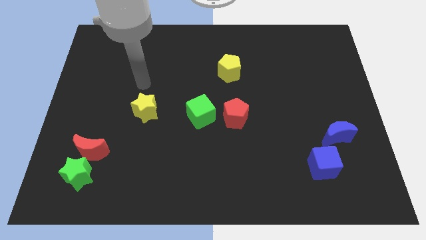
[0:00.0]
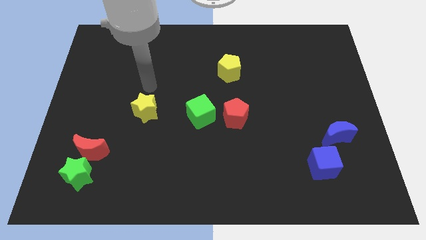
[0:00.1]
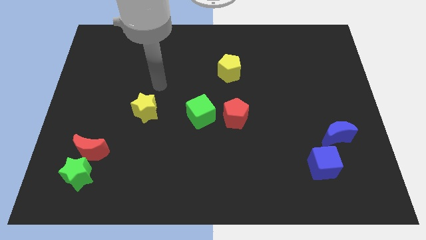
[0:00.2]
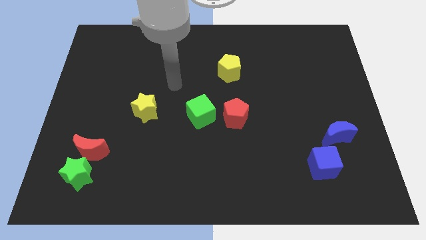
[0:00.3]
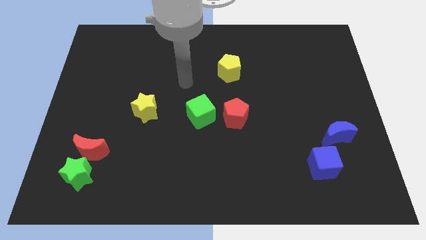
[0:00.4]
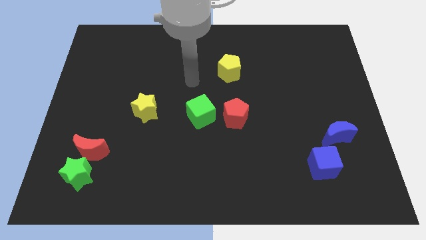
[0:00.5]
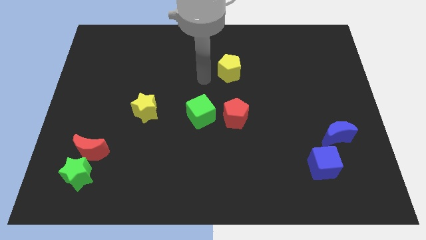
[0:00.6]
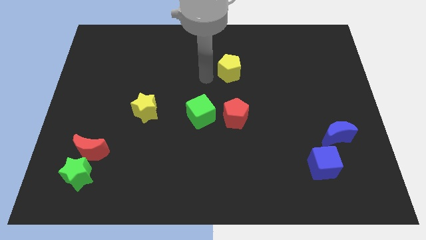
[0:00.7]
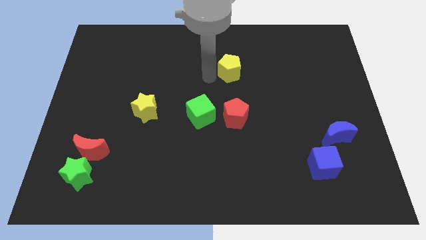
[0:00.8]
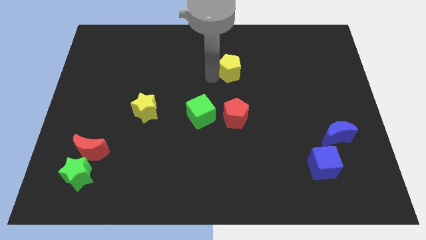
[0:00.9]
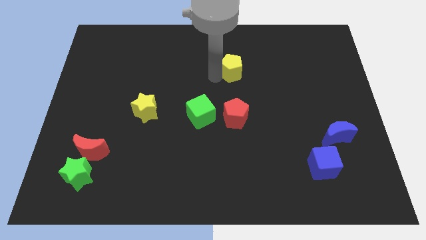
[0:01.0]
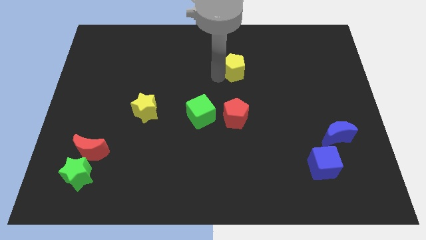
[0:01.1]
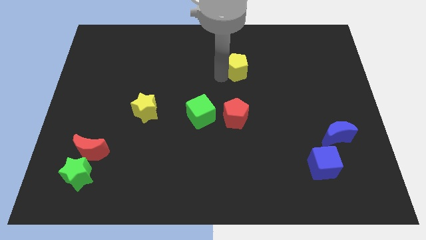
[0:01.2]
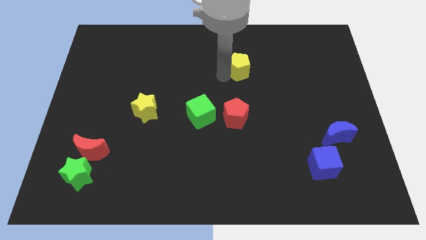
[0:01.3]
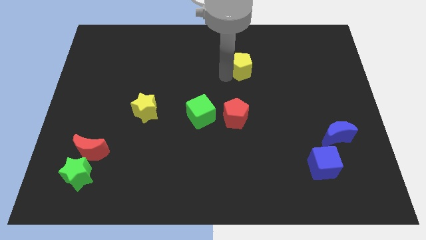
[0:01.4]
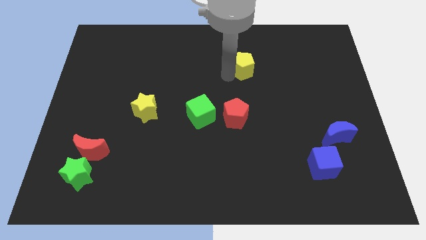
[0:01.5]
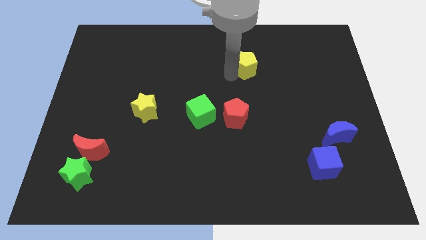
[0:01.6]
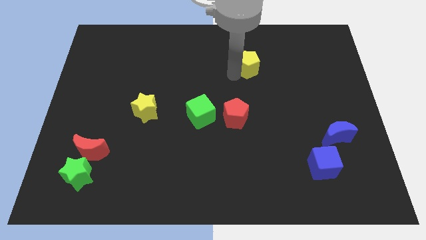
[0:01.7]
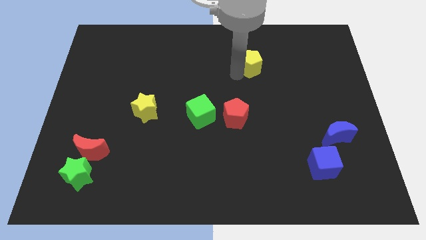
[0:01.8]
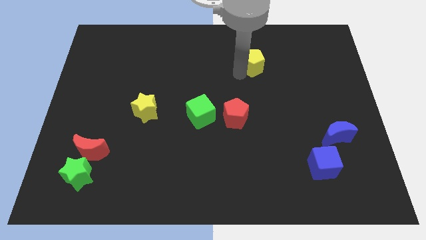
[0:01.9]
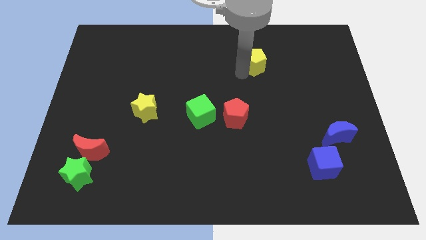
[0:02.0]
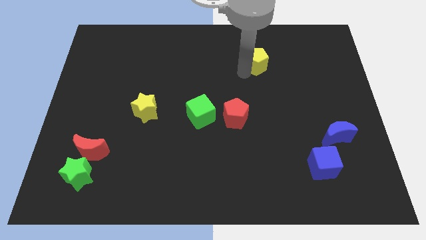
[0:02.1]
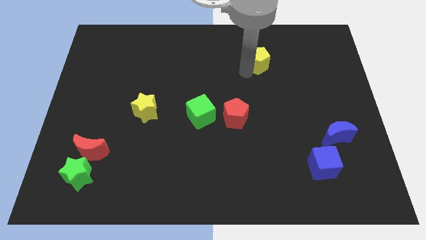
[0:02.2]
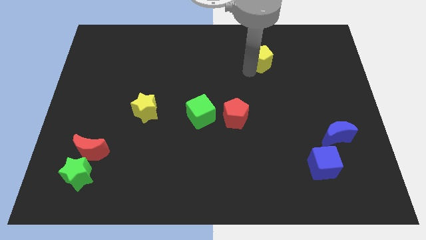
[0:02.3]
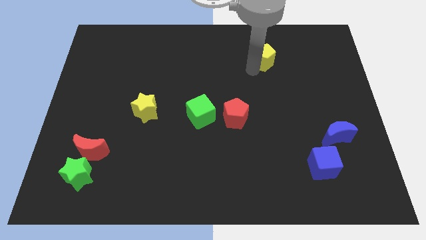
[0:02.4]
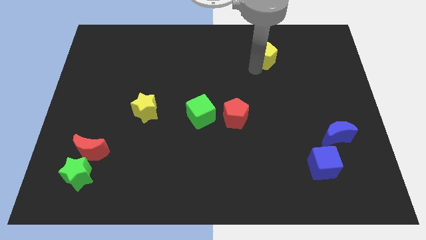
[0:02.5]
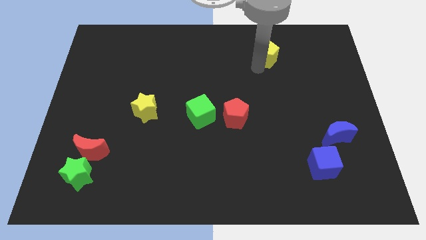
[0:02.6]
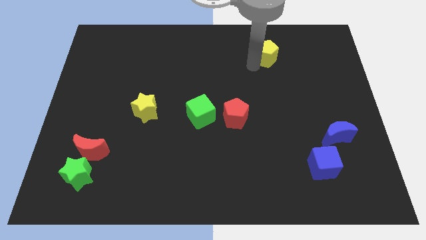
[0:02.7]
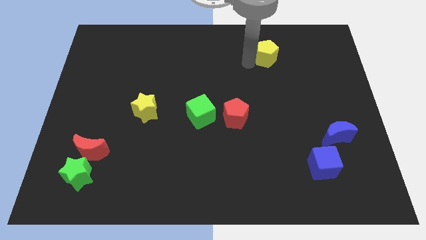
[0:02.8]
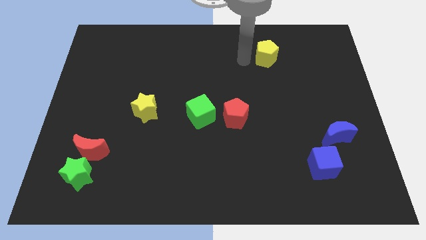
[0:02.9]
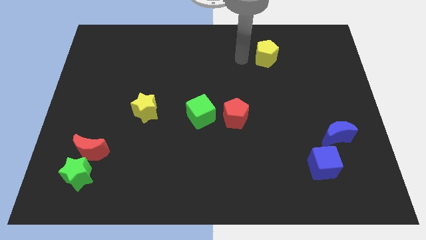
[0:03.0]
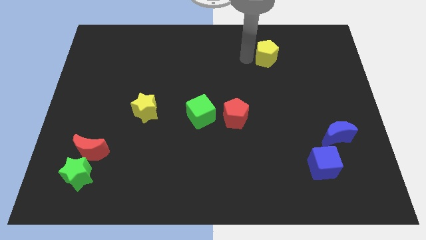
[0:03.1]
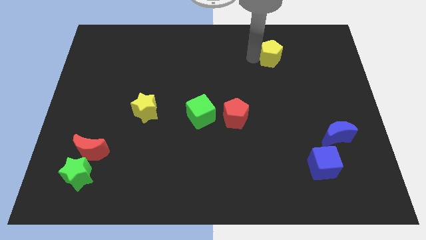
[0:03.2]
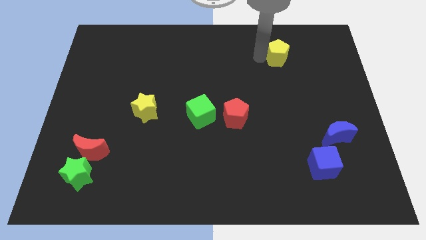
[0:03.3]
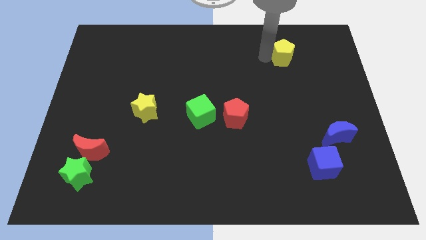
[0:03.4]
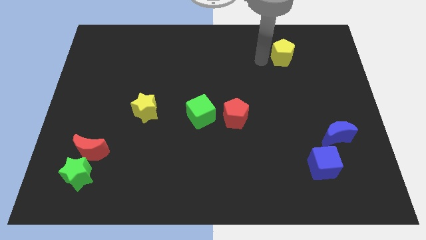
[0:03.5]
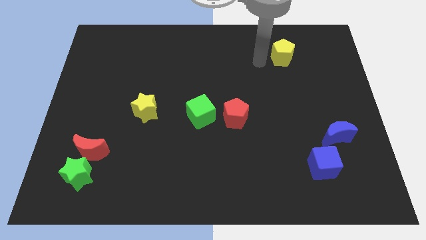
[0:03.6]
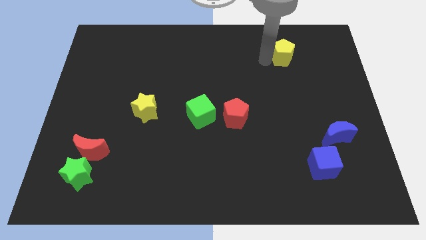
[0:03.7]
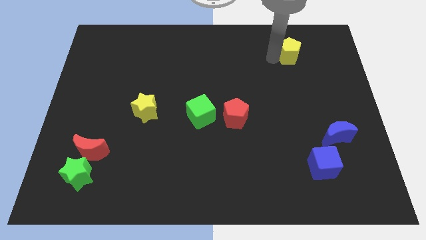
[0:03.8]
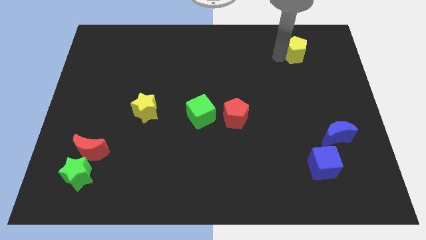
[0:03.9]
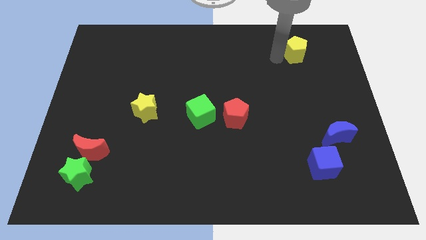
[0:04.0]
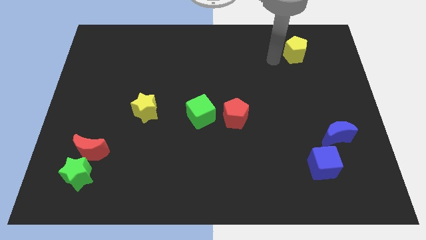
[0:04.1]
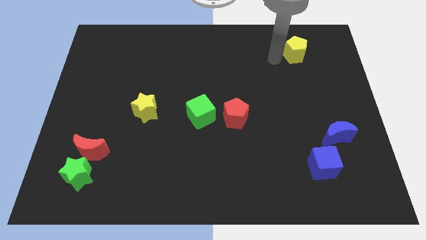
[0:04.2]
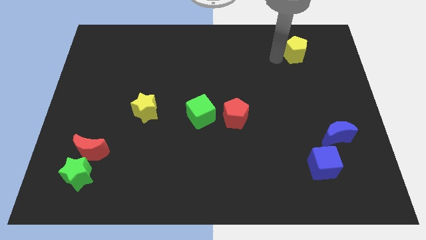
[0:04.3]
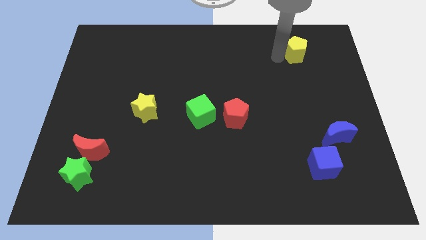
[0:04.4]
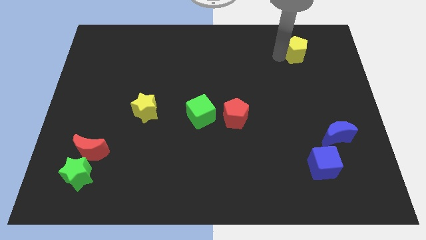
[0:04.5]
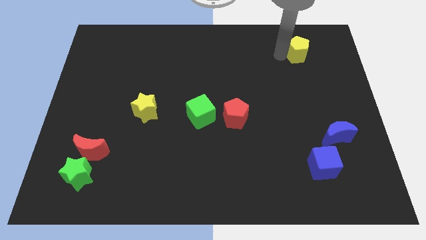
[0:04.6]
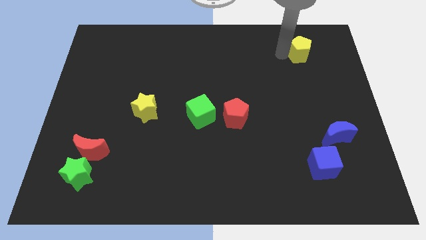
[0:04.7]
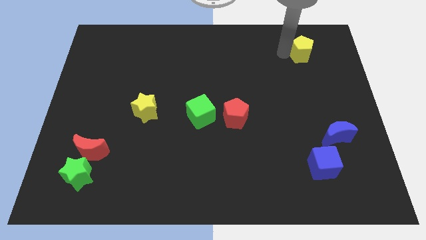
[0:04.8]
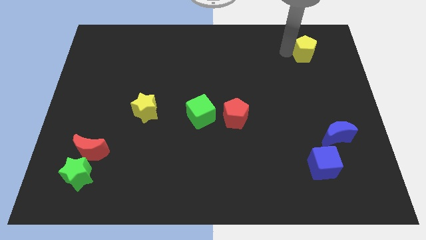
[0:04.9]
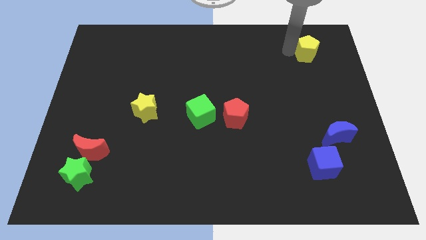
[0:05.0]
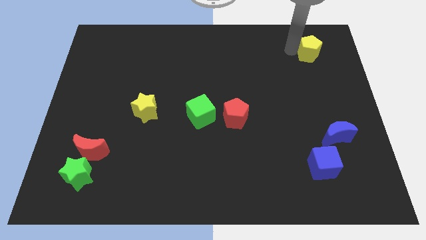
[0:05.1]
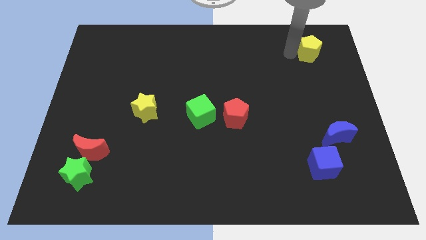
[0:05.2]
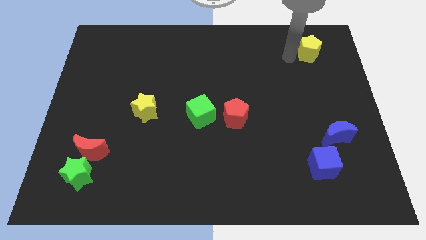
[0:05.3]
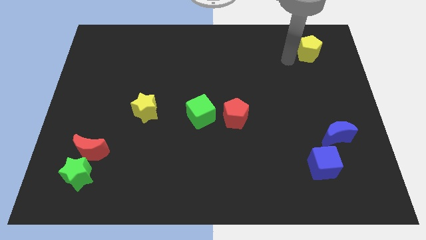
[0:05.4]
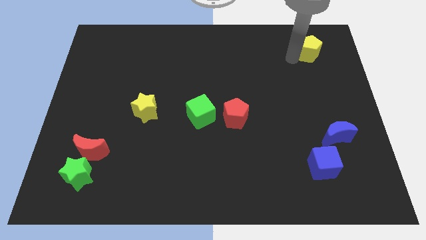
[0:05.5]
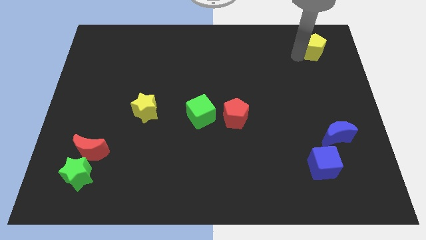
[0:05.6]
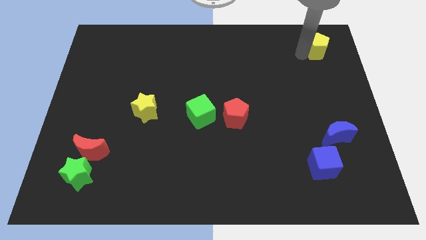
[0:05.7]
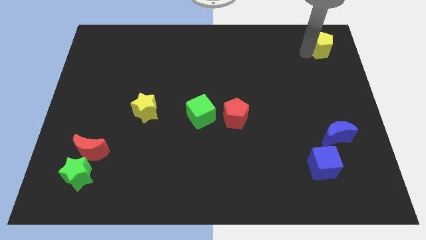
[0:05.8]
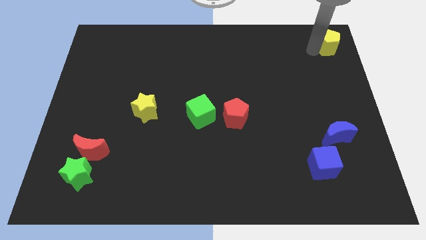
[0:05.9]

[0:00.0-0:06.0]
push the yellow pentagon to the top right corner

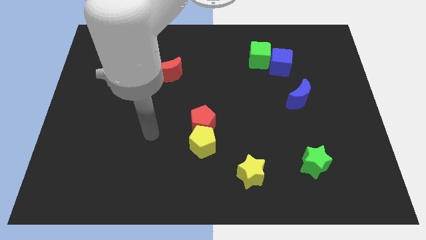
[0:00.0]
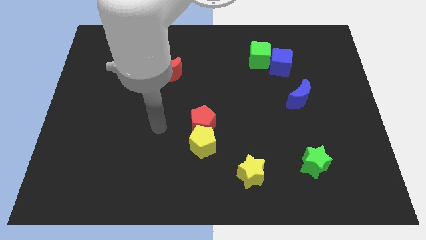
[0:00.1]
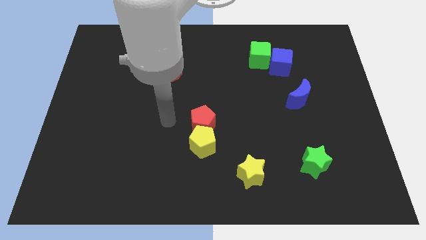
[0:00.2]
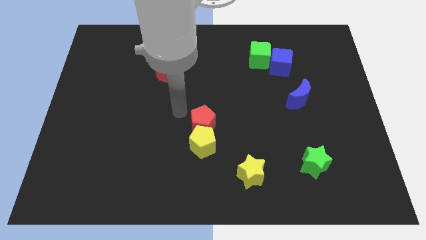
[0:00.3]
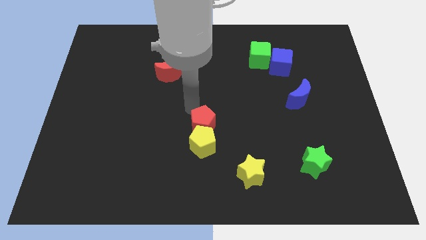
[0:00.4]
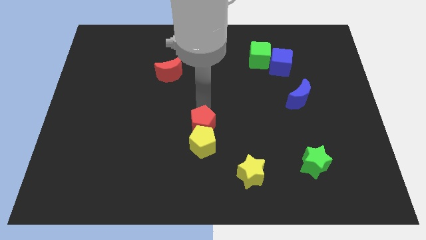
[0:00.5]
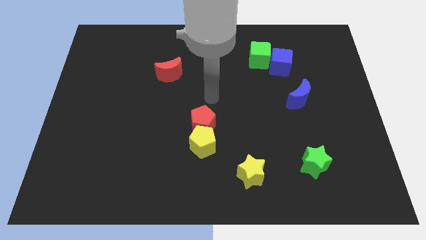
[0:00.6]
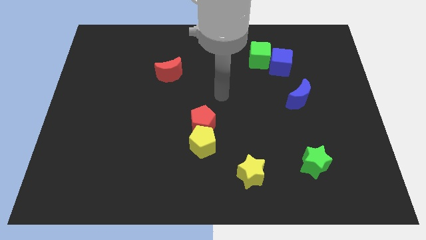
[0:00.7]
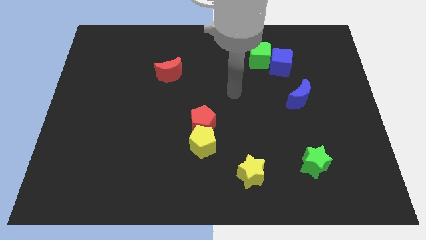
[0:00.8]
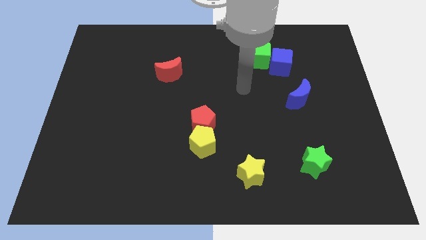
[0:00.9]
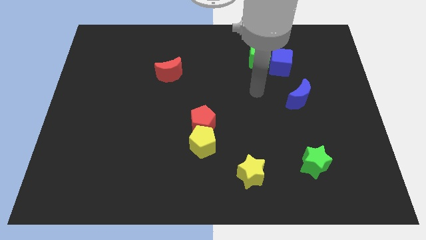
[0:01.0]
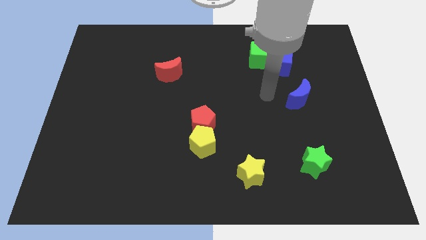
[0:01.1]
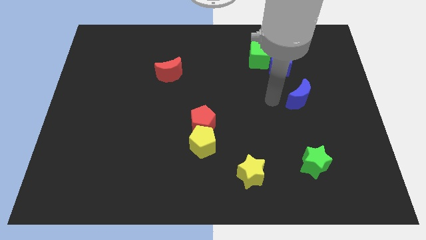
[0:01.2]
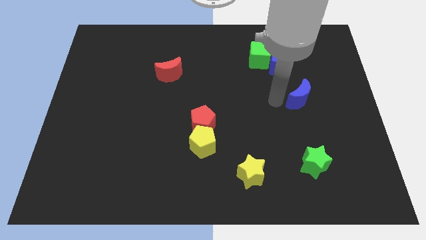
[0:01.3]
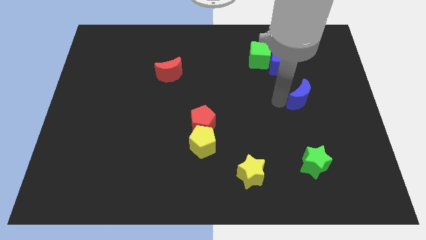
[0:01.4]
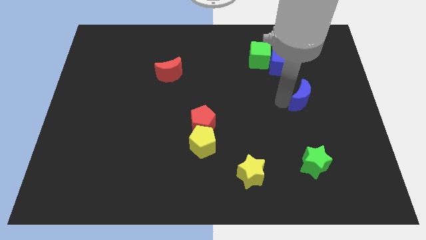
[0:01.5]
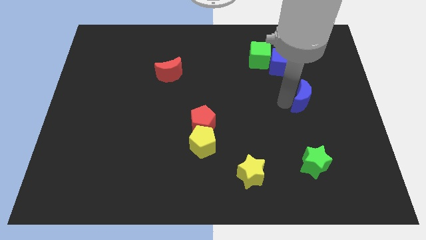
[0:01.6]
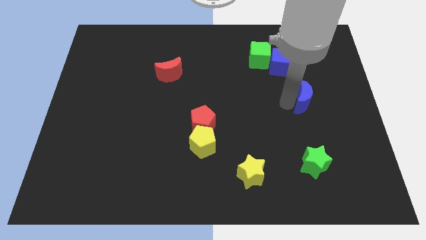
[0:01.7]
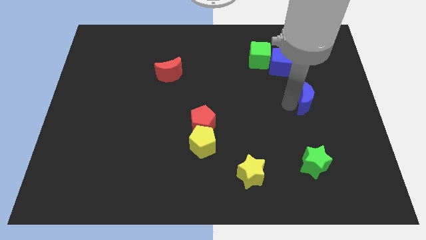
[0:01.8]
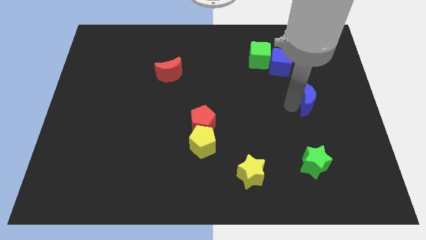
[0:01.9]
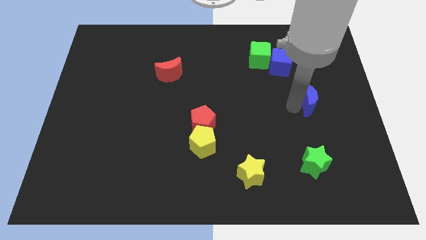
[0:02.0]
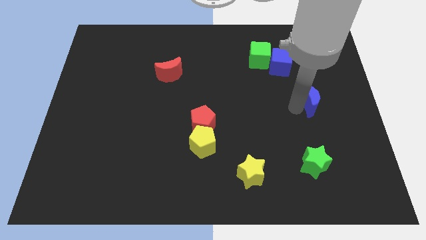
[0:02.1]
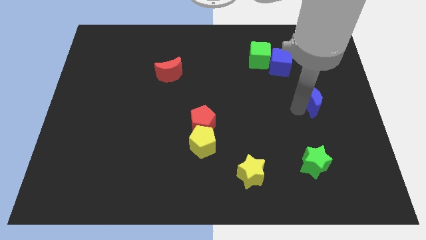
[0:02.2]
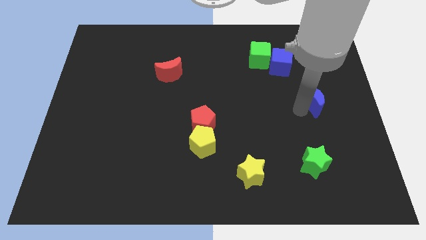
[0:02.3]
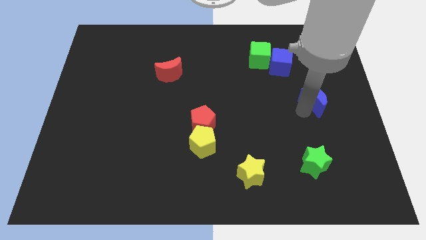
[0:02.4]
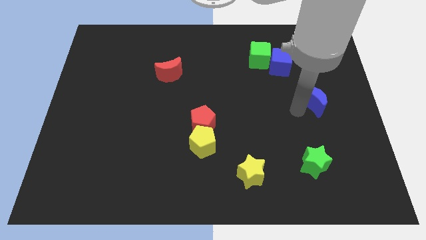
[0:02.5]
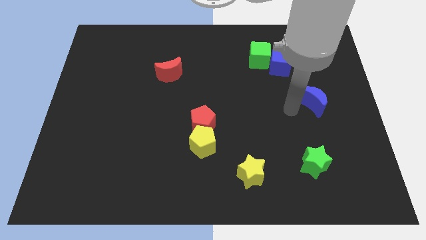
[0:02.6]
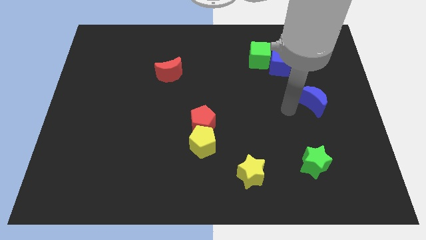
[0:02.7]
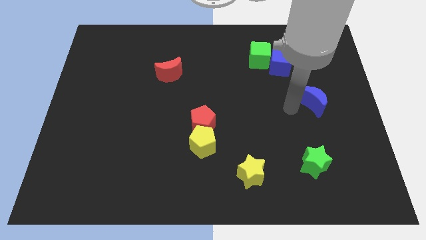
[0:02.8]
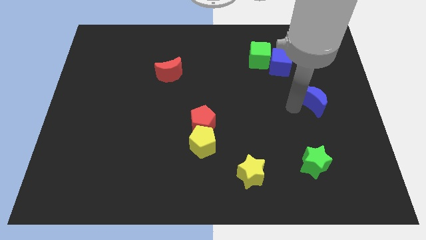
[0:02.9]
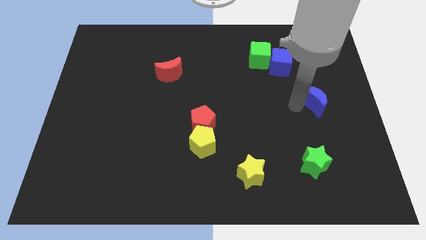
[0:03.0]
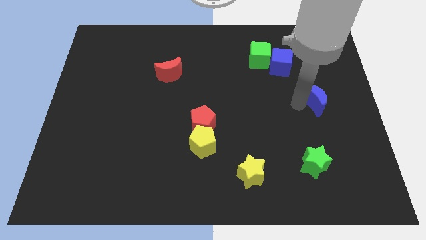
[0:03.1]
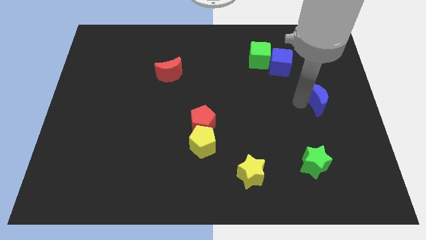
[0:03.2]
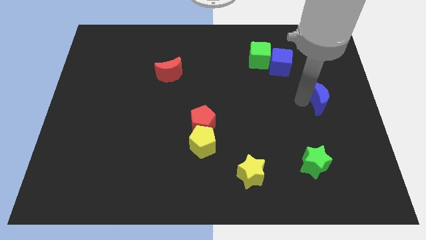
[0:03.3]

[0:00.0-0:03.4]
move the blue moon to the right side
